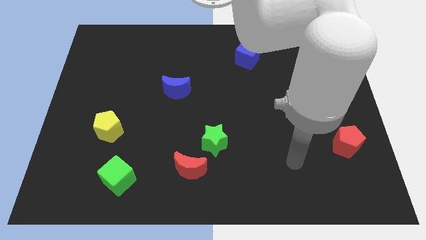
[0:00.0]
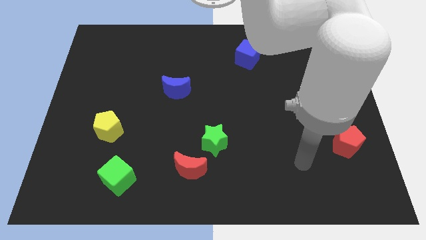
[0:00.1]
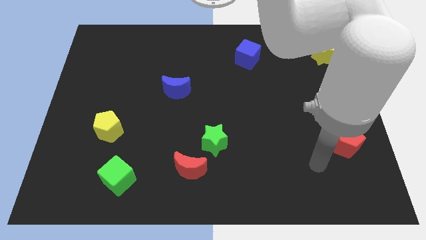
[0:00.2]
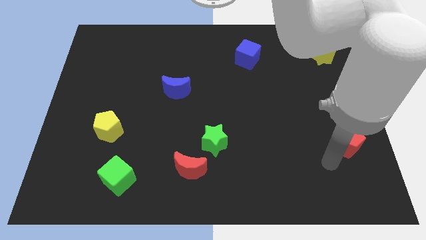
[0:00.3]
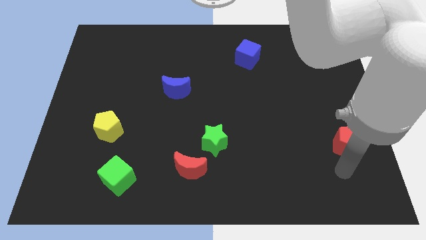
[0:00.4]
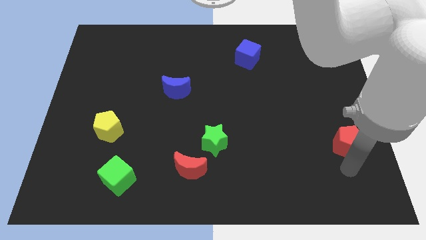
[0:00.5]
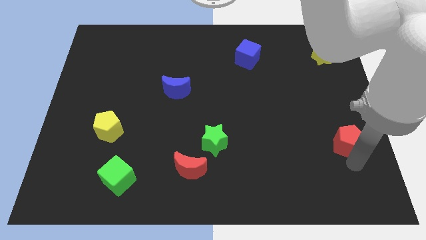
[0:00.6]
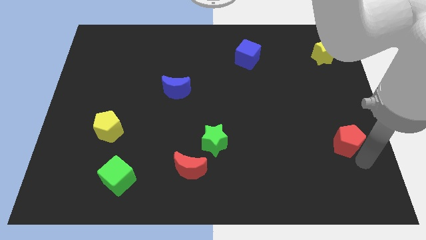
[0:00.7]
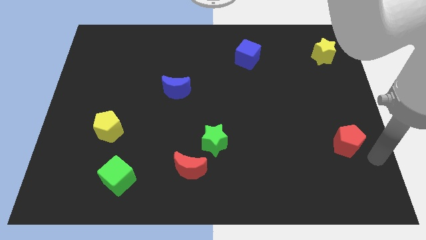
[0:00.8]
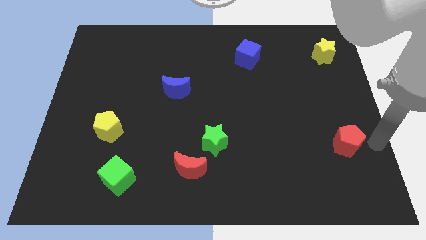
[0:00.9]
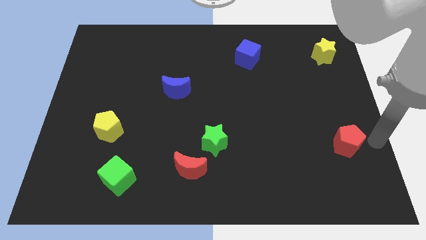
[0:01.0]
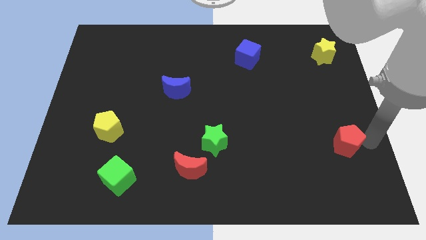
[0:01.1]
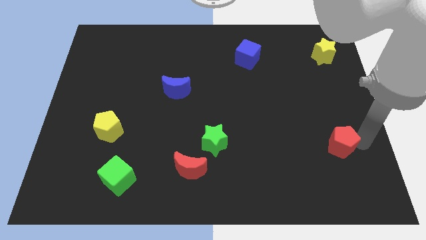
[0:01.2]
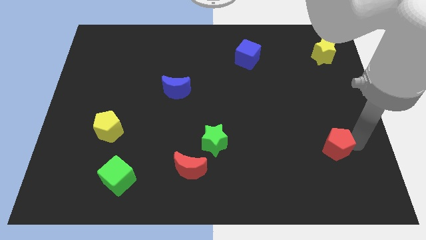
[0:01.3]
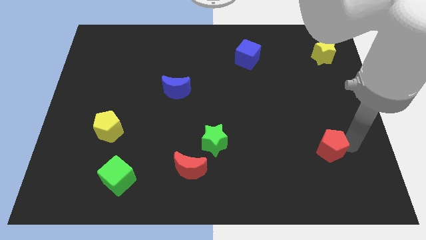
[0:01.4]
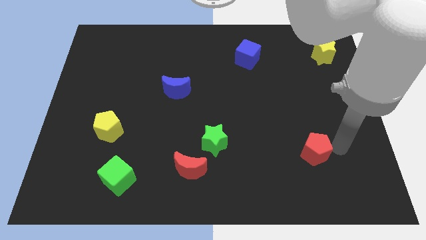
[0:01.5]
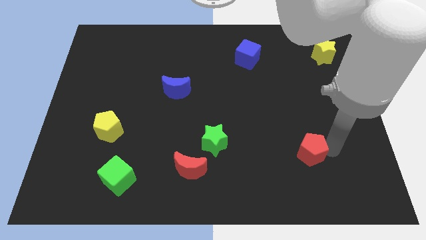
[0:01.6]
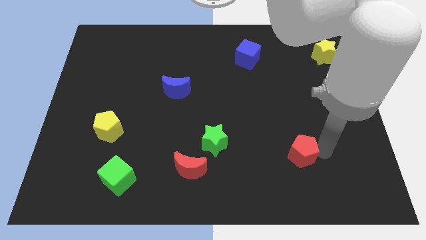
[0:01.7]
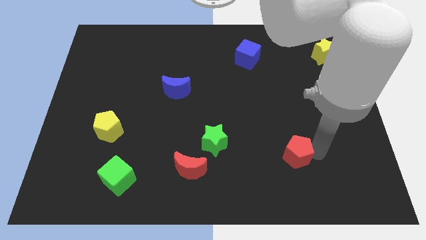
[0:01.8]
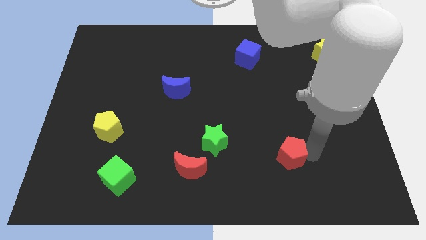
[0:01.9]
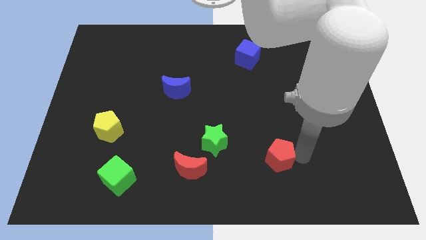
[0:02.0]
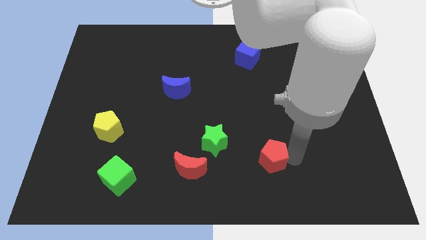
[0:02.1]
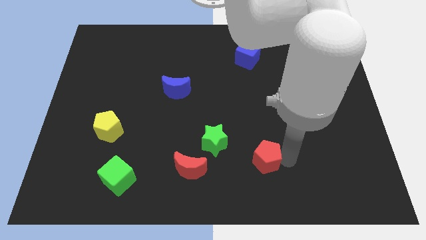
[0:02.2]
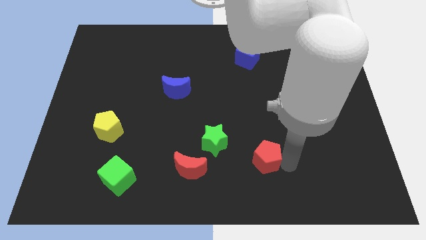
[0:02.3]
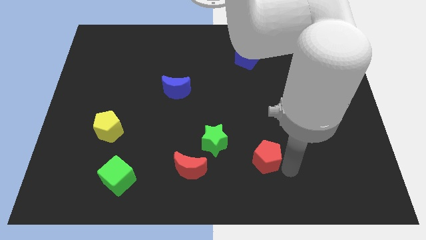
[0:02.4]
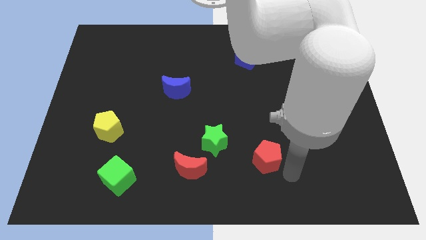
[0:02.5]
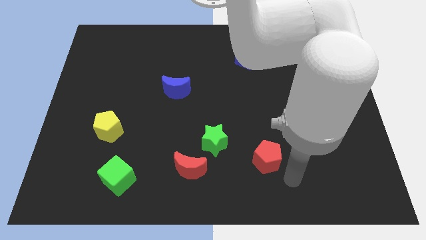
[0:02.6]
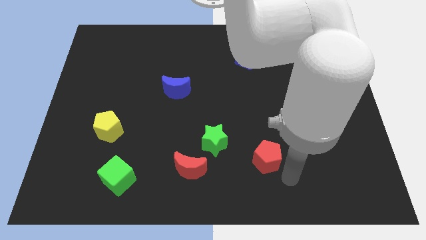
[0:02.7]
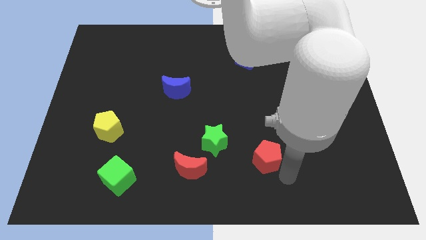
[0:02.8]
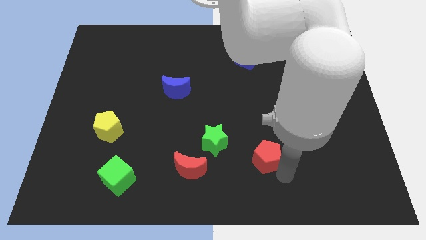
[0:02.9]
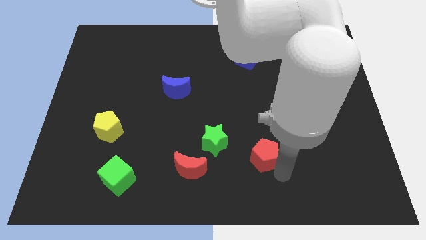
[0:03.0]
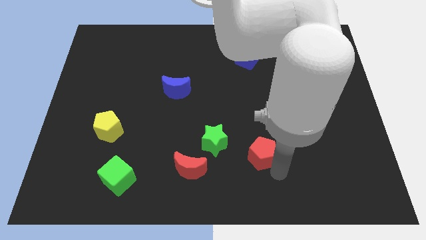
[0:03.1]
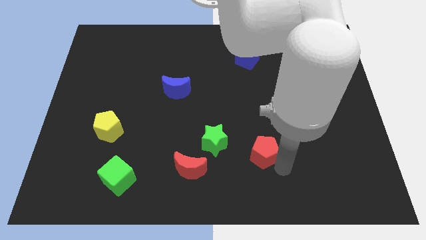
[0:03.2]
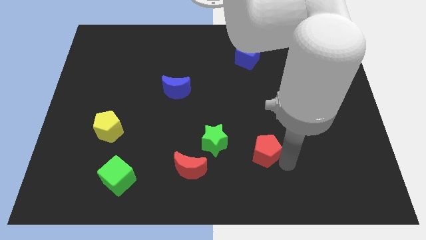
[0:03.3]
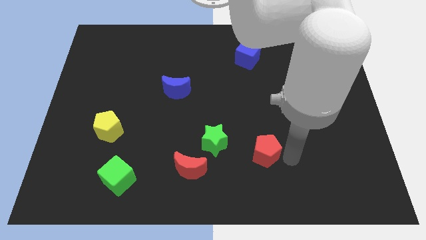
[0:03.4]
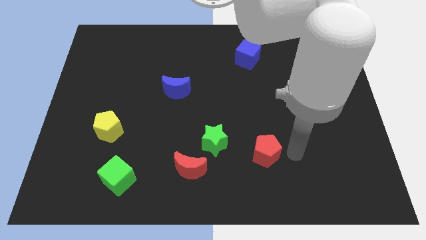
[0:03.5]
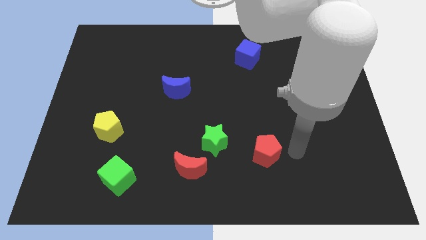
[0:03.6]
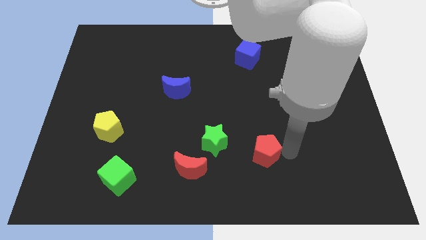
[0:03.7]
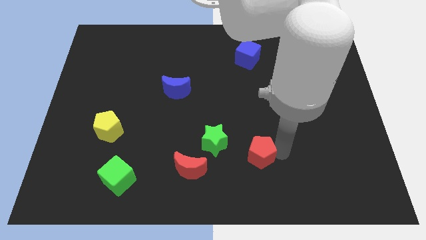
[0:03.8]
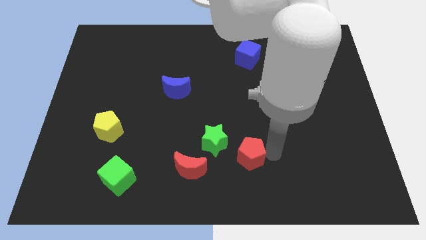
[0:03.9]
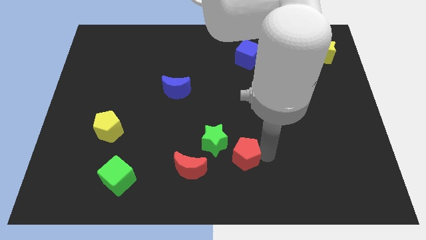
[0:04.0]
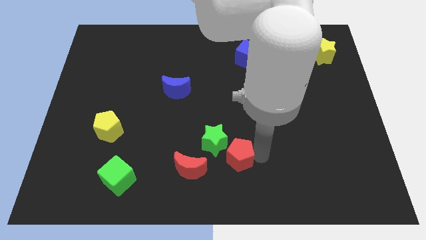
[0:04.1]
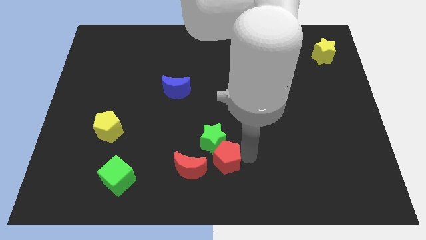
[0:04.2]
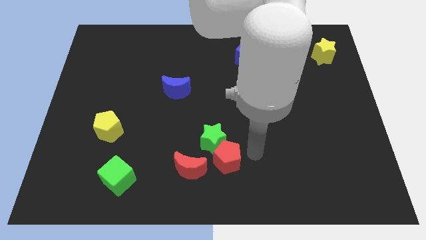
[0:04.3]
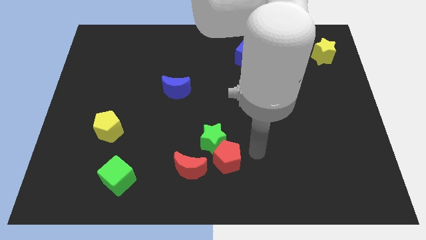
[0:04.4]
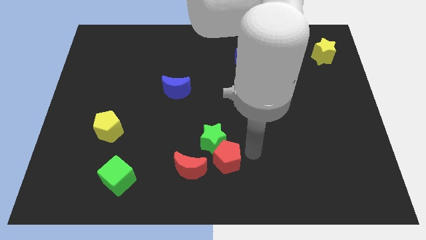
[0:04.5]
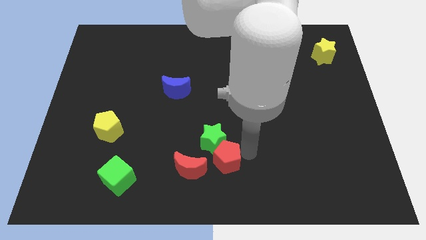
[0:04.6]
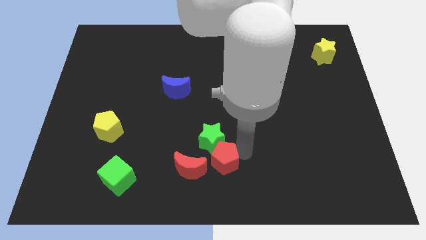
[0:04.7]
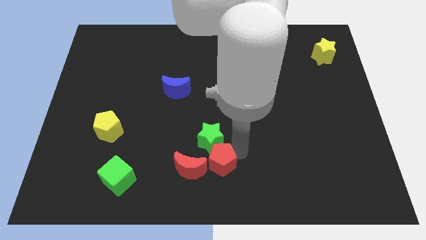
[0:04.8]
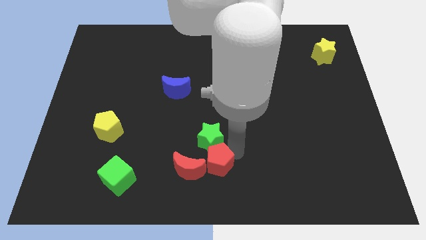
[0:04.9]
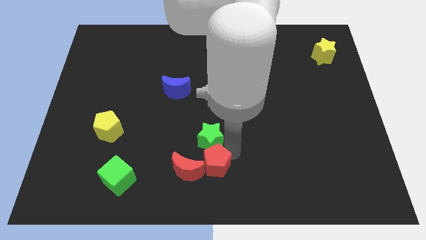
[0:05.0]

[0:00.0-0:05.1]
push the red pentagon towards the red moon

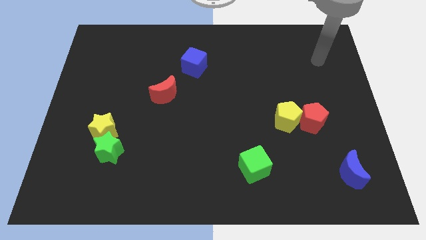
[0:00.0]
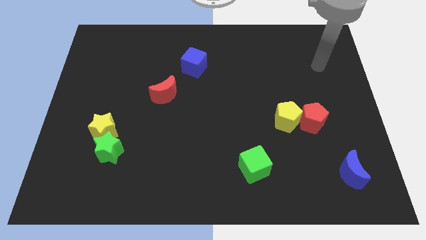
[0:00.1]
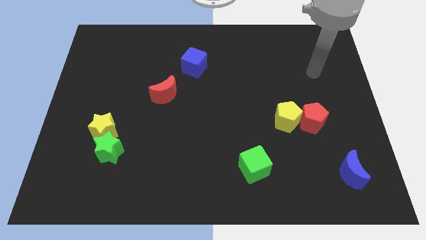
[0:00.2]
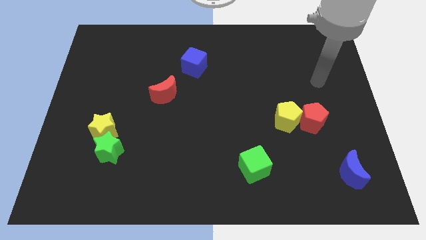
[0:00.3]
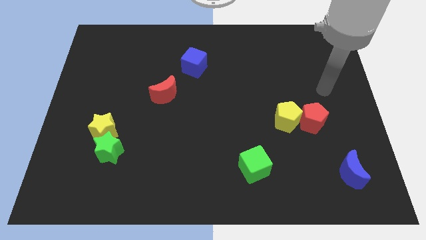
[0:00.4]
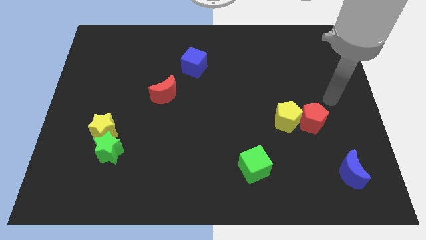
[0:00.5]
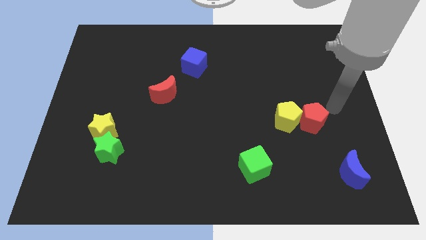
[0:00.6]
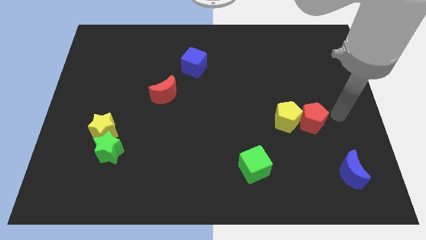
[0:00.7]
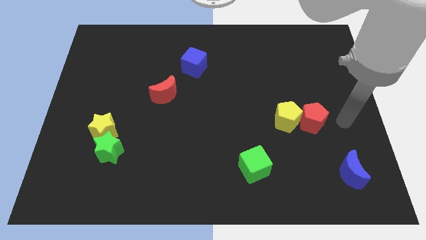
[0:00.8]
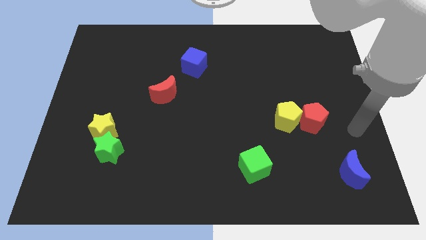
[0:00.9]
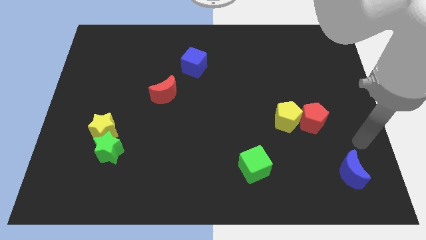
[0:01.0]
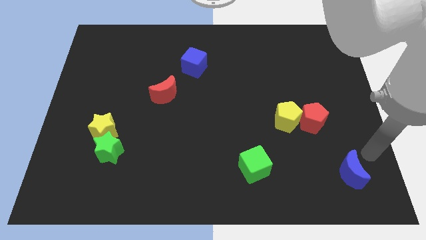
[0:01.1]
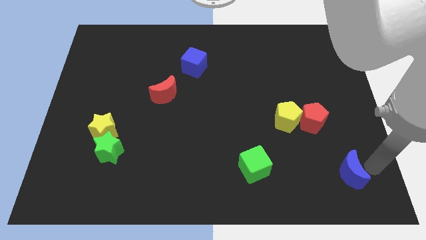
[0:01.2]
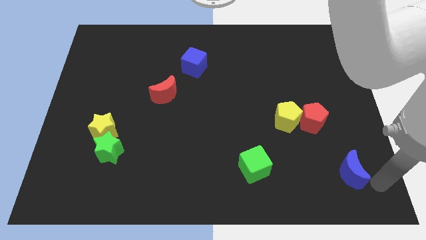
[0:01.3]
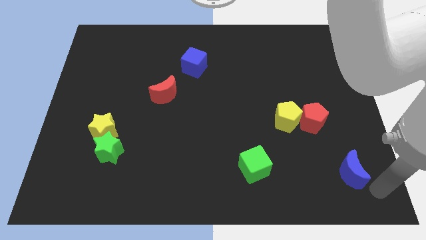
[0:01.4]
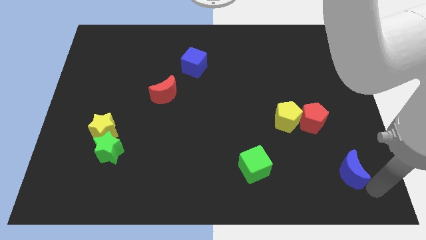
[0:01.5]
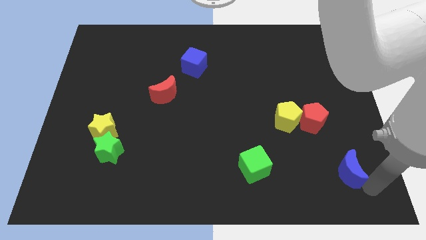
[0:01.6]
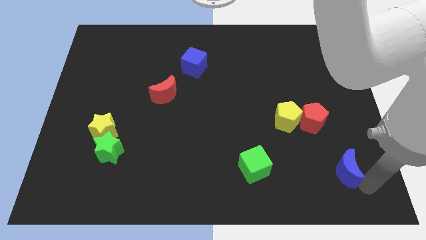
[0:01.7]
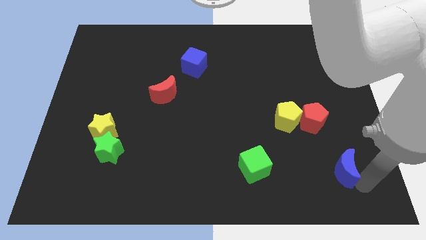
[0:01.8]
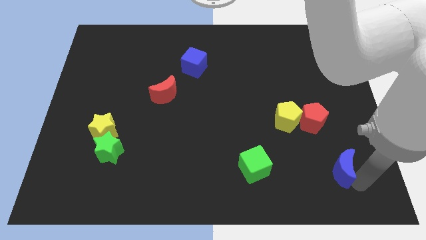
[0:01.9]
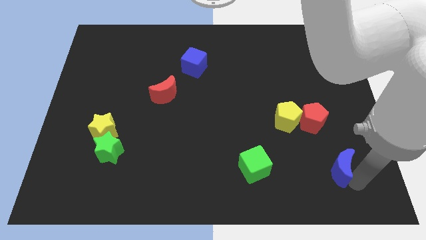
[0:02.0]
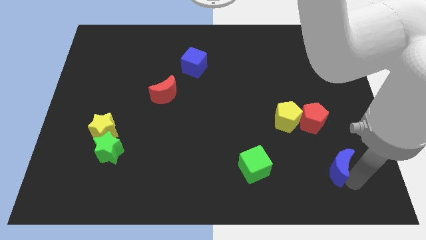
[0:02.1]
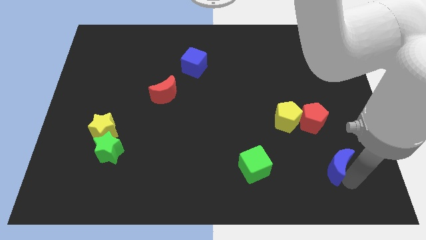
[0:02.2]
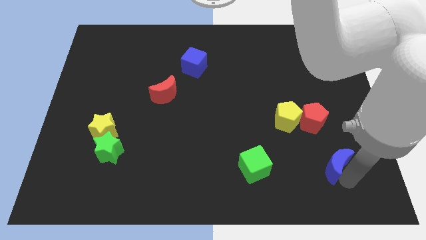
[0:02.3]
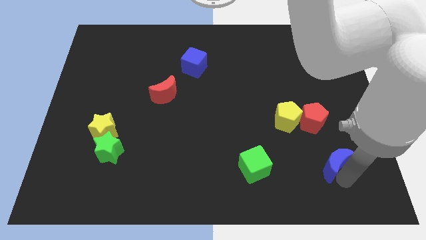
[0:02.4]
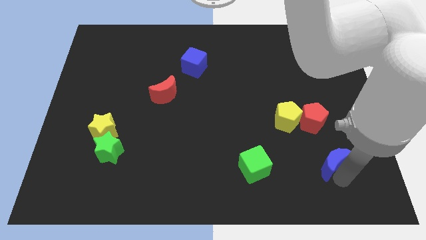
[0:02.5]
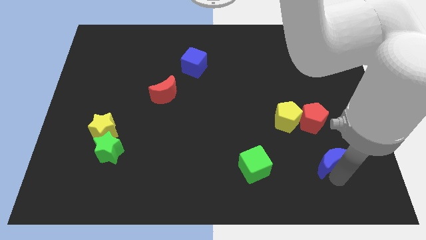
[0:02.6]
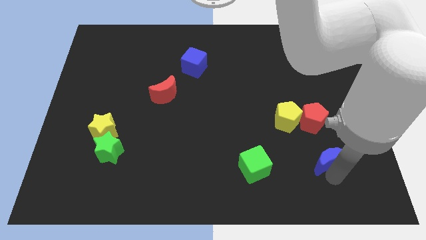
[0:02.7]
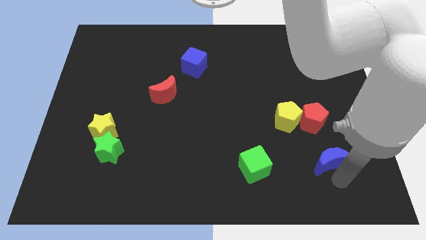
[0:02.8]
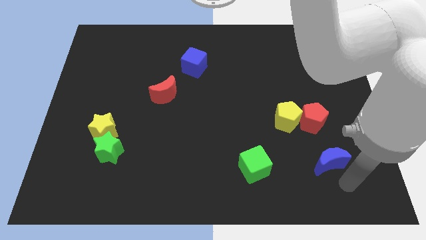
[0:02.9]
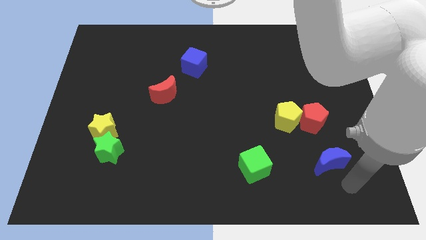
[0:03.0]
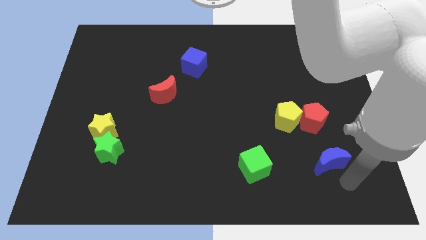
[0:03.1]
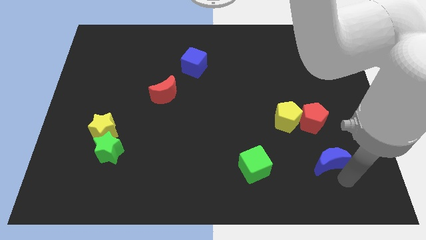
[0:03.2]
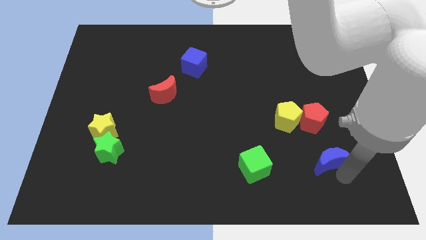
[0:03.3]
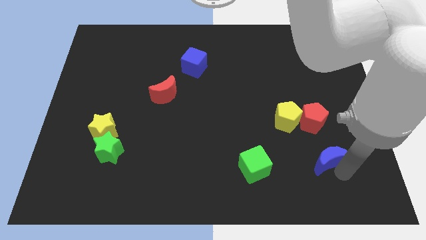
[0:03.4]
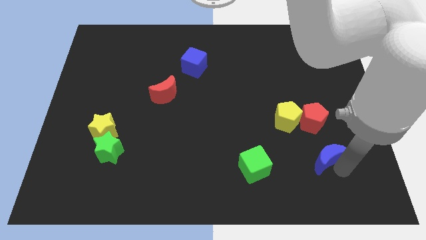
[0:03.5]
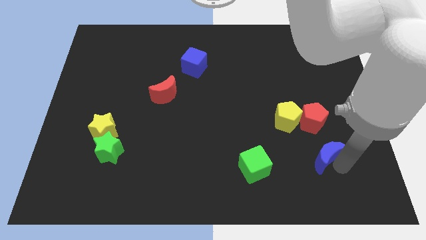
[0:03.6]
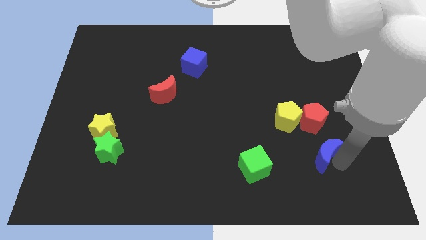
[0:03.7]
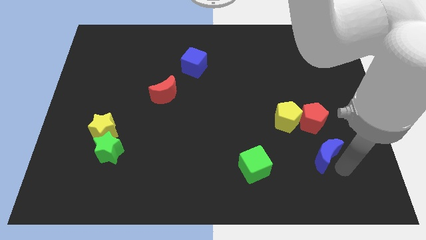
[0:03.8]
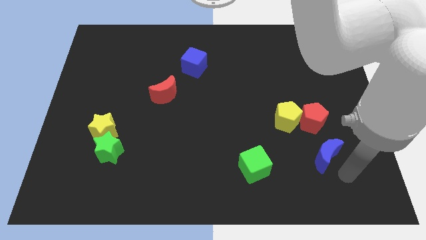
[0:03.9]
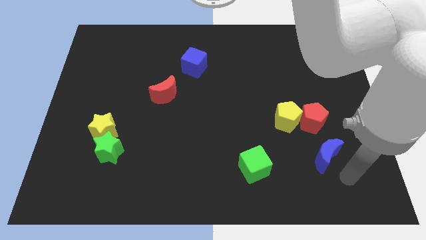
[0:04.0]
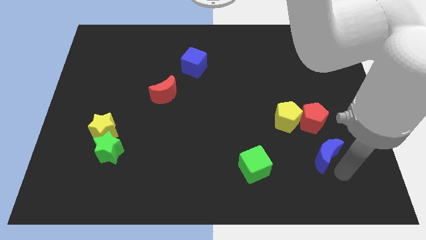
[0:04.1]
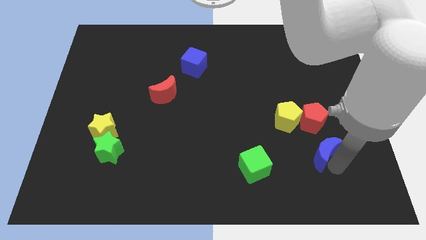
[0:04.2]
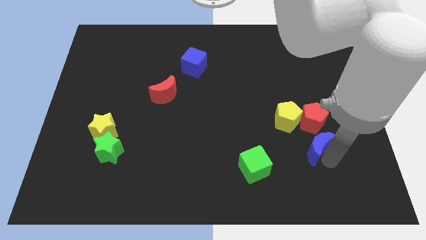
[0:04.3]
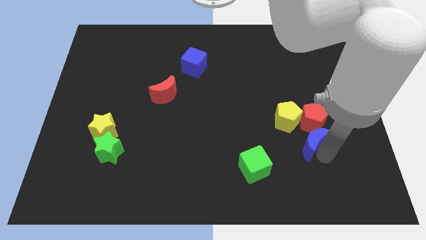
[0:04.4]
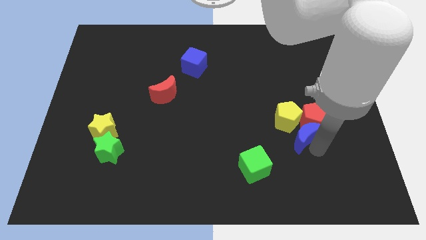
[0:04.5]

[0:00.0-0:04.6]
put the blue moon next to the yellow pentagon
